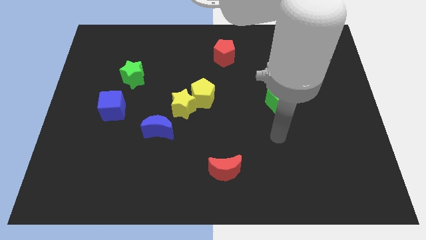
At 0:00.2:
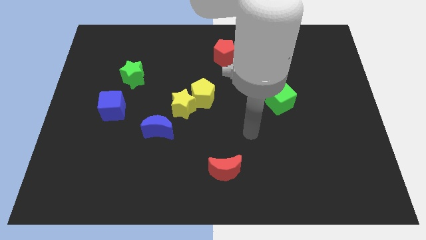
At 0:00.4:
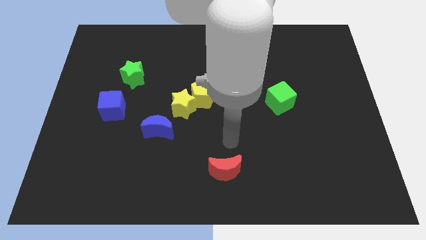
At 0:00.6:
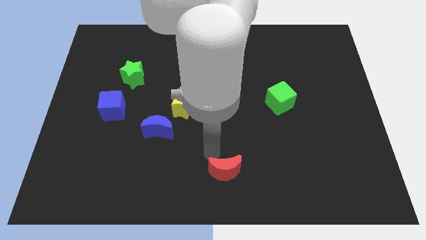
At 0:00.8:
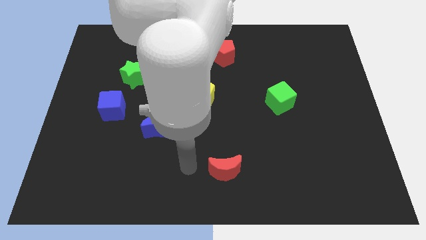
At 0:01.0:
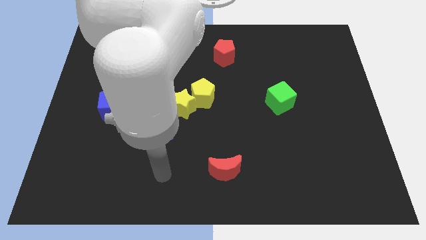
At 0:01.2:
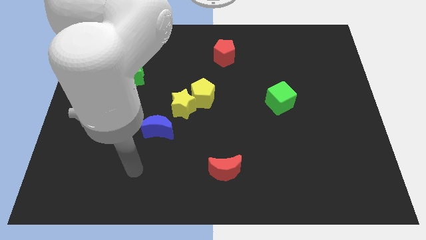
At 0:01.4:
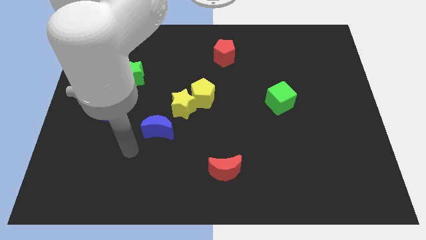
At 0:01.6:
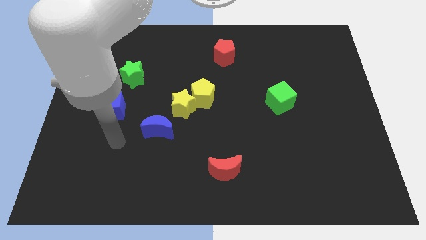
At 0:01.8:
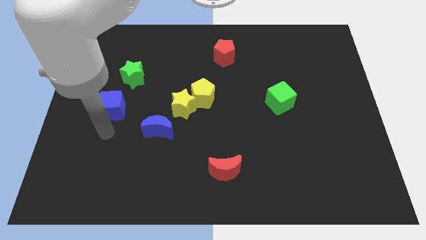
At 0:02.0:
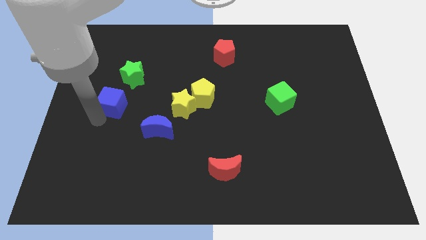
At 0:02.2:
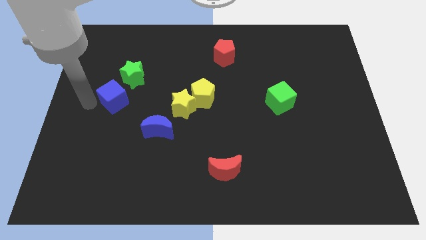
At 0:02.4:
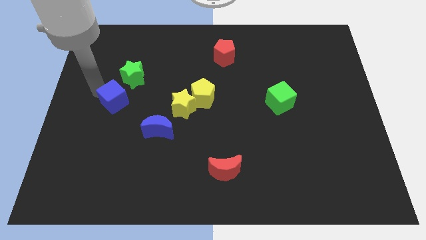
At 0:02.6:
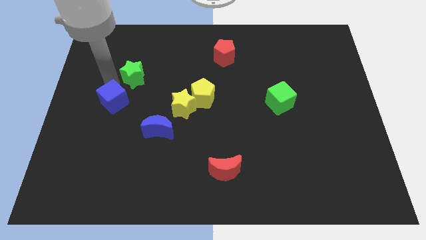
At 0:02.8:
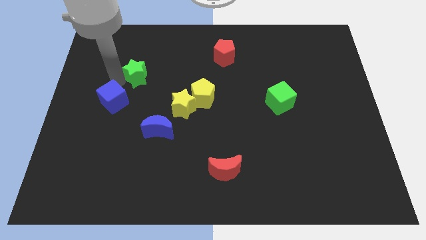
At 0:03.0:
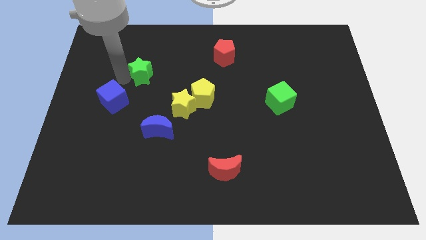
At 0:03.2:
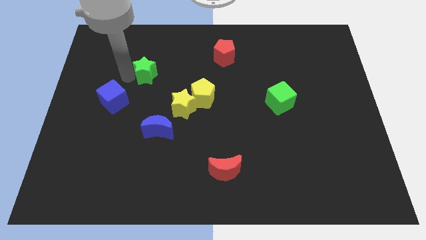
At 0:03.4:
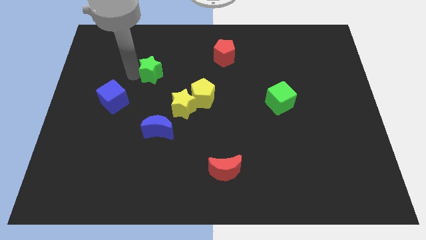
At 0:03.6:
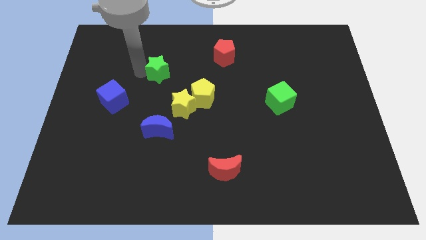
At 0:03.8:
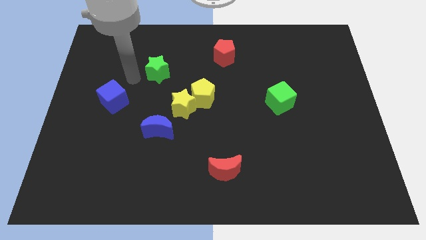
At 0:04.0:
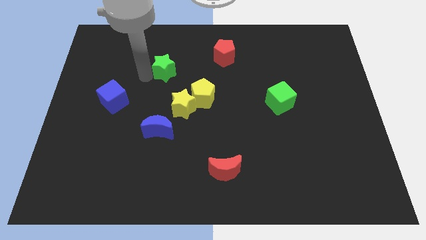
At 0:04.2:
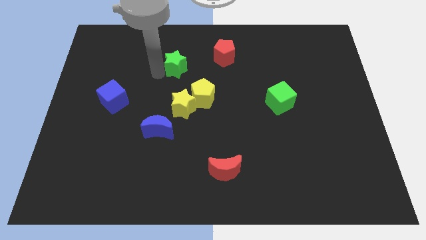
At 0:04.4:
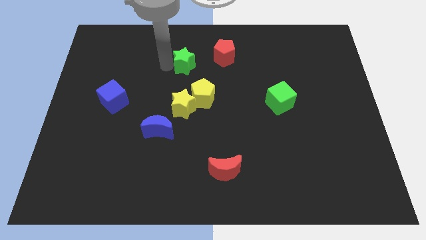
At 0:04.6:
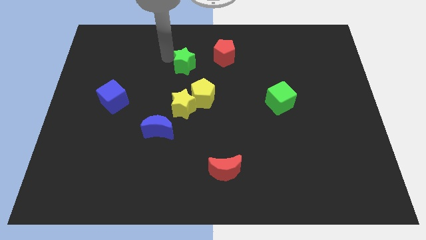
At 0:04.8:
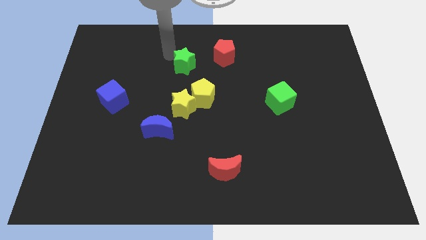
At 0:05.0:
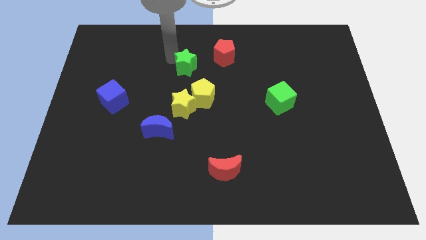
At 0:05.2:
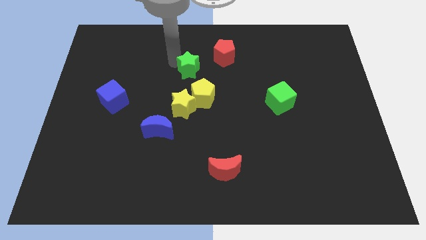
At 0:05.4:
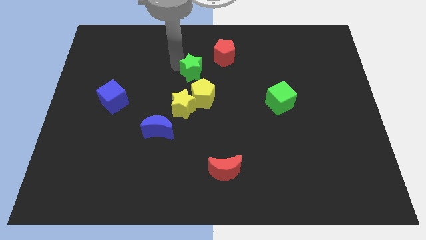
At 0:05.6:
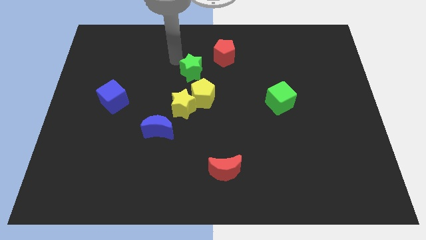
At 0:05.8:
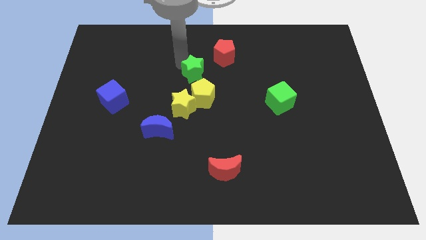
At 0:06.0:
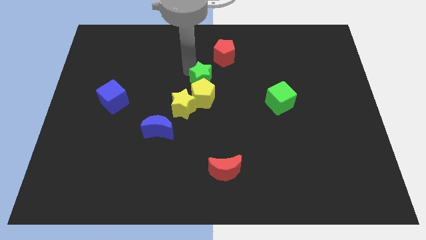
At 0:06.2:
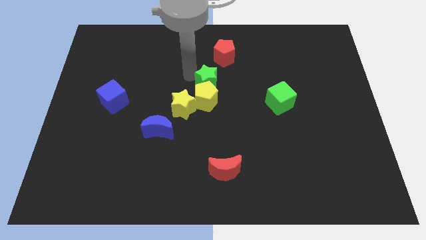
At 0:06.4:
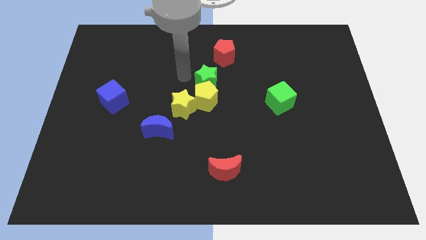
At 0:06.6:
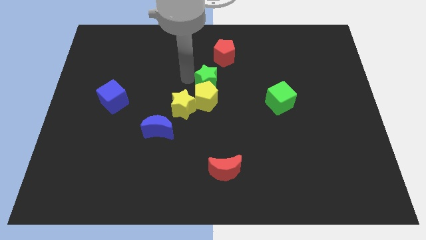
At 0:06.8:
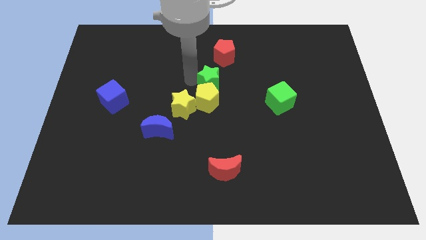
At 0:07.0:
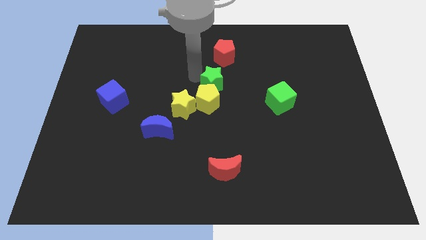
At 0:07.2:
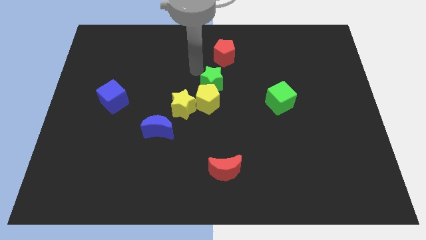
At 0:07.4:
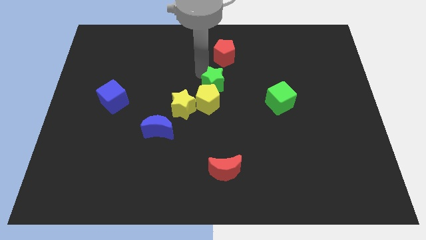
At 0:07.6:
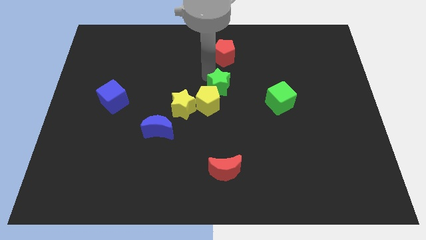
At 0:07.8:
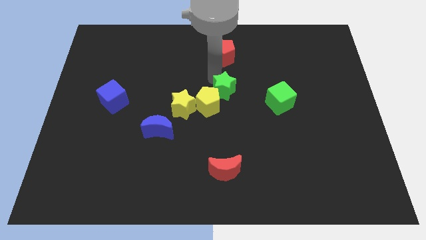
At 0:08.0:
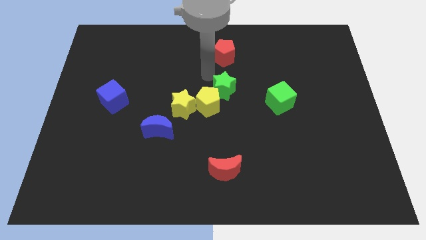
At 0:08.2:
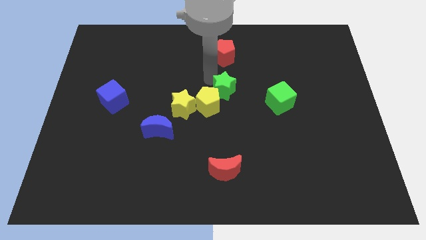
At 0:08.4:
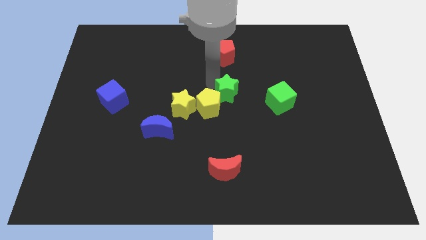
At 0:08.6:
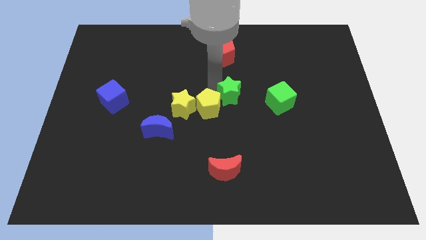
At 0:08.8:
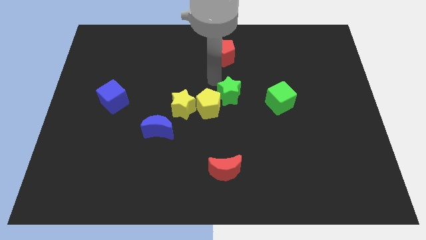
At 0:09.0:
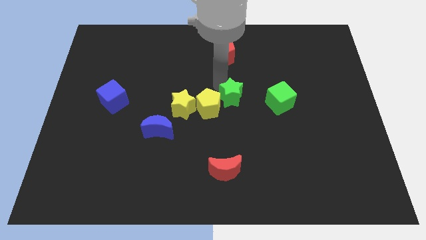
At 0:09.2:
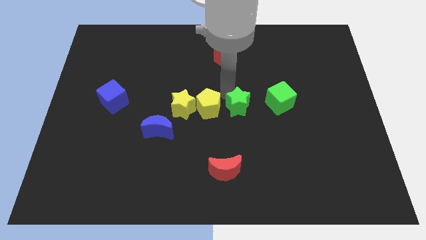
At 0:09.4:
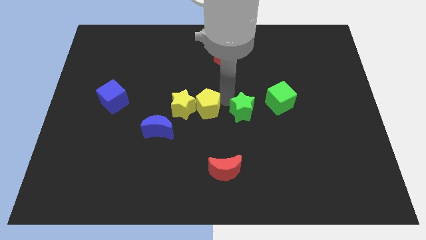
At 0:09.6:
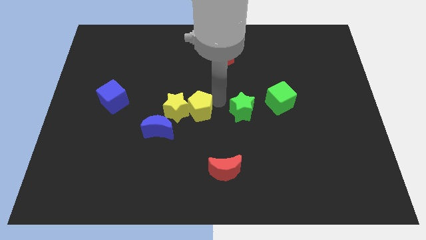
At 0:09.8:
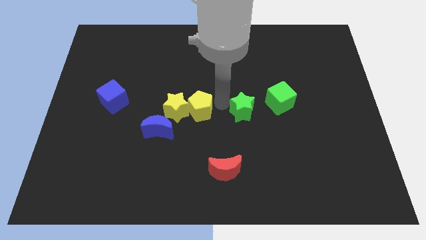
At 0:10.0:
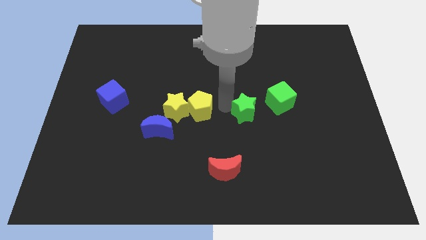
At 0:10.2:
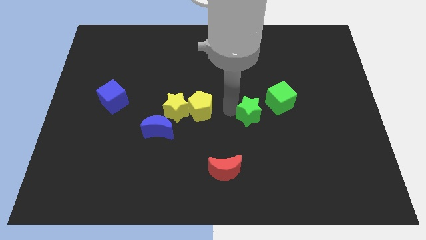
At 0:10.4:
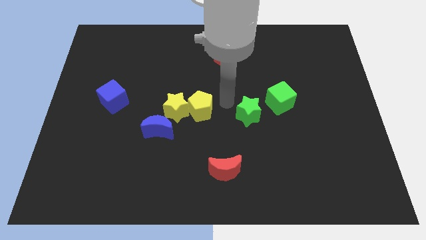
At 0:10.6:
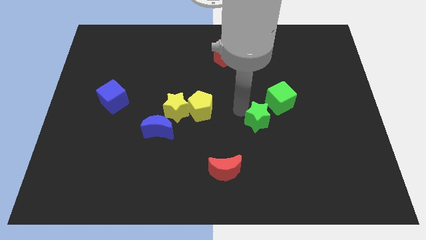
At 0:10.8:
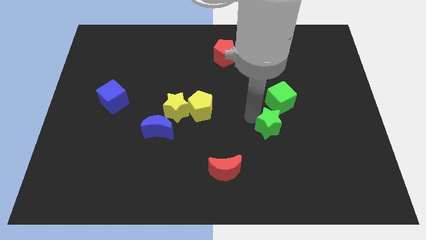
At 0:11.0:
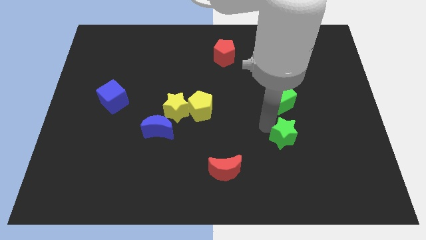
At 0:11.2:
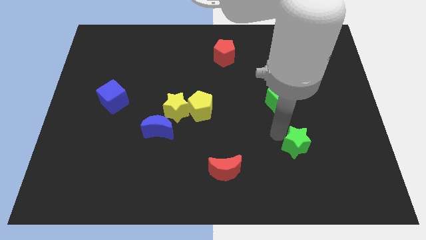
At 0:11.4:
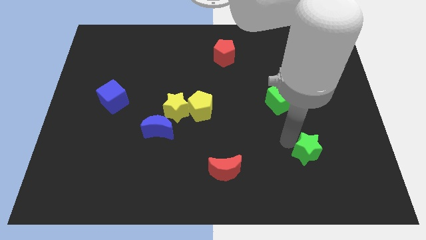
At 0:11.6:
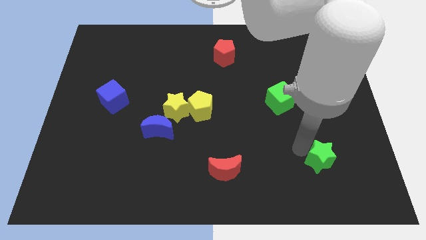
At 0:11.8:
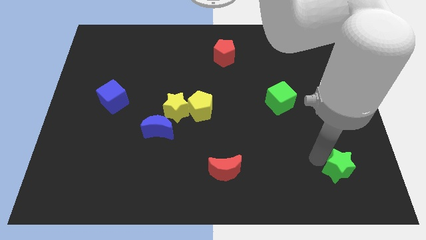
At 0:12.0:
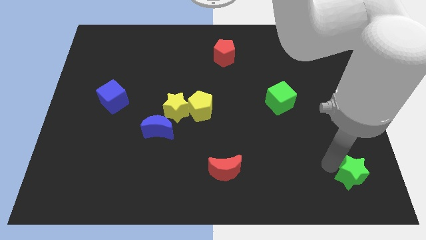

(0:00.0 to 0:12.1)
slide the green star to the bottom right of the board
